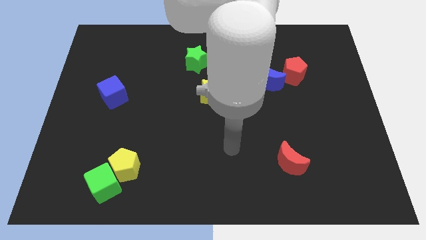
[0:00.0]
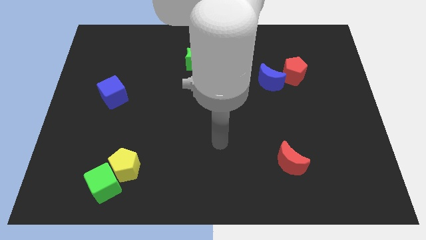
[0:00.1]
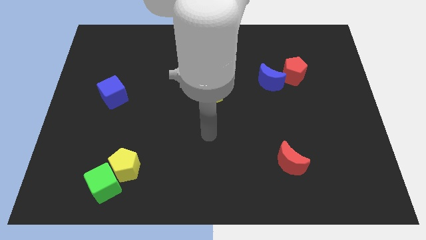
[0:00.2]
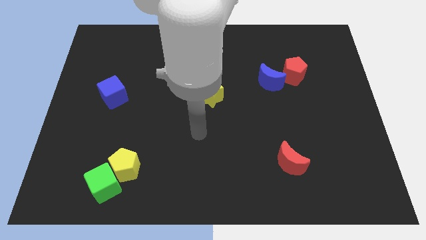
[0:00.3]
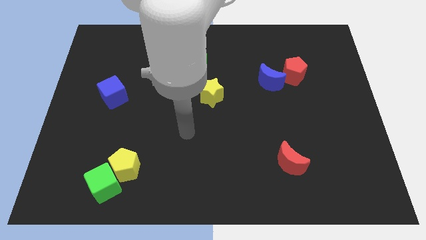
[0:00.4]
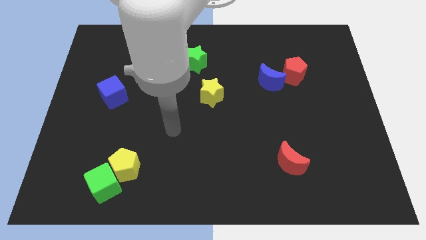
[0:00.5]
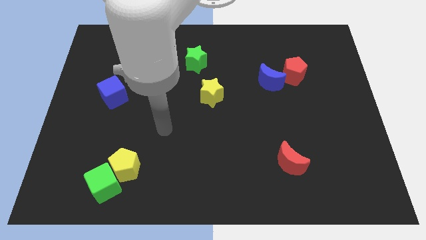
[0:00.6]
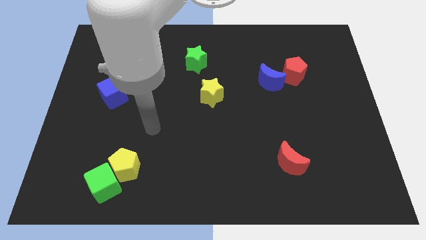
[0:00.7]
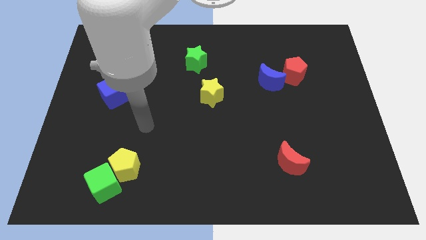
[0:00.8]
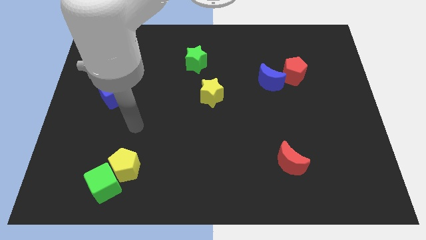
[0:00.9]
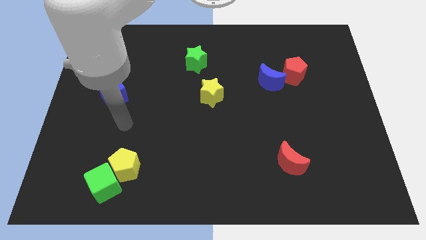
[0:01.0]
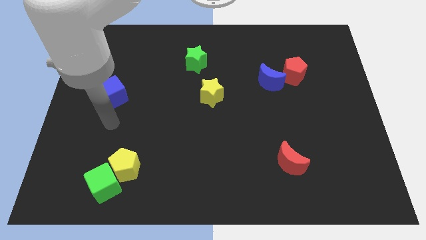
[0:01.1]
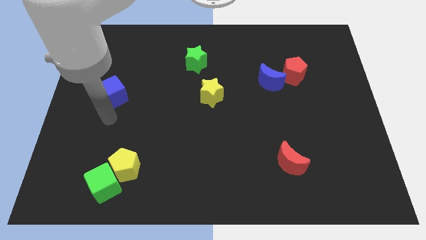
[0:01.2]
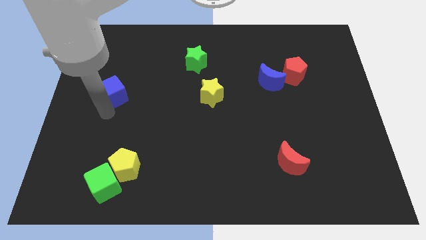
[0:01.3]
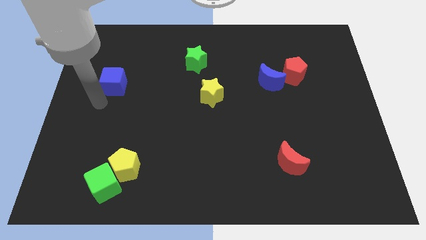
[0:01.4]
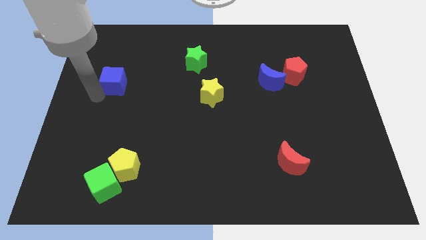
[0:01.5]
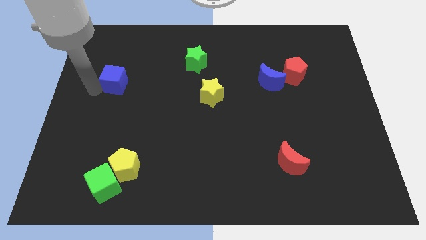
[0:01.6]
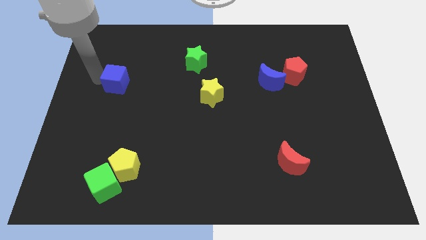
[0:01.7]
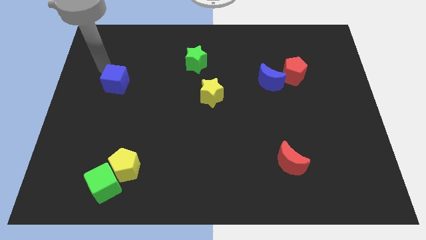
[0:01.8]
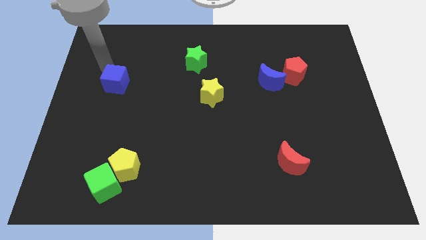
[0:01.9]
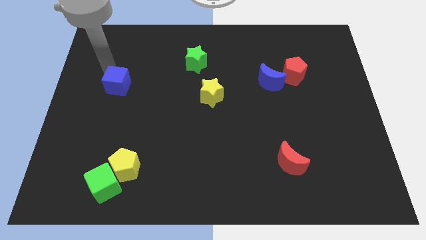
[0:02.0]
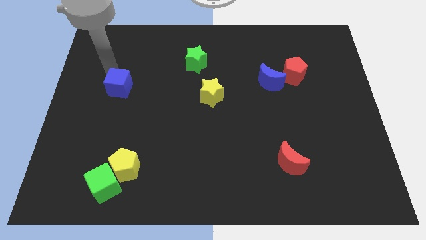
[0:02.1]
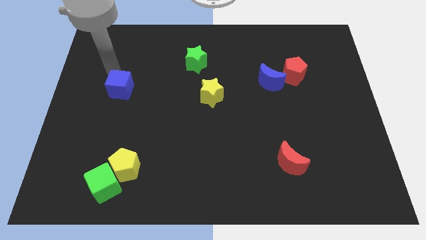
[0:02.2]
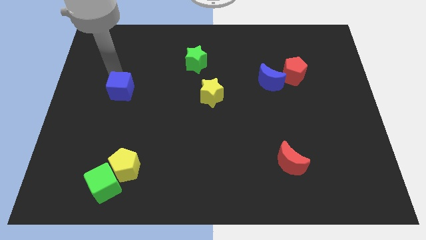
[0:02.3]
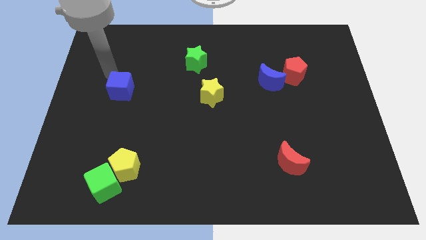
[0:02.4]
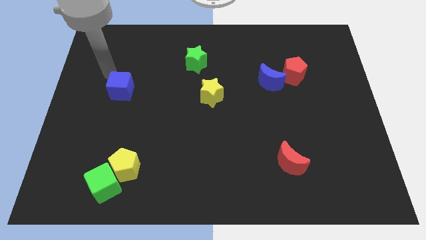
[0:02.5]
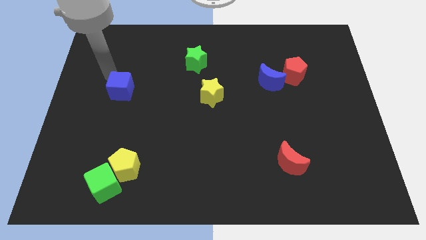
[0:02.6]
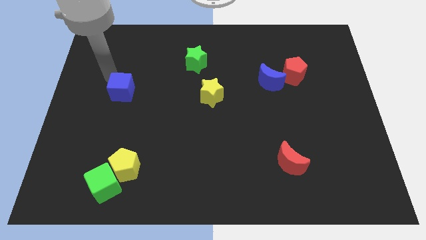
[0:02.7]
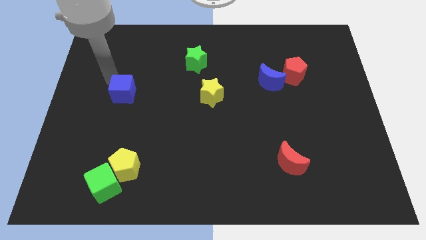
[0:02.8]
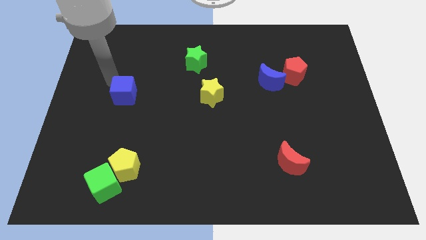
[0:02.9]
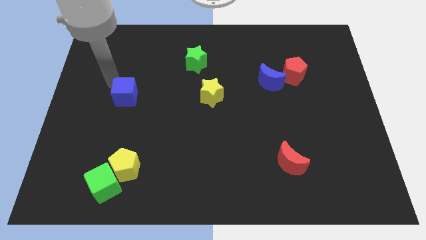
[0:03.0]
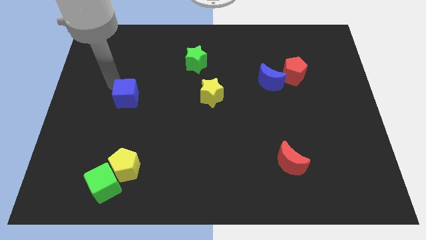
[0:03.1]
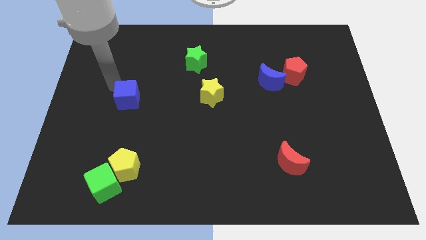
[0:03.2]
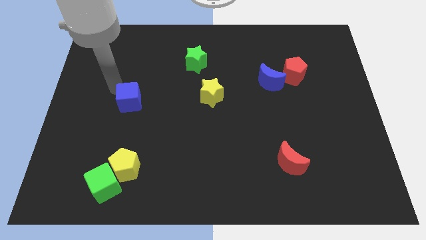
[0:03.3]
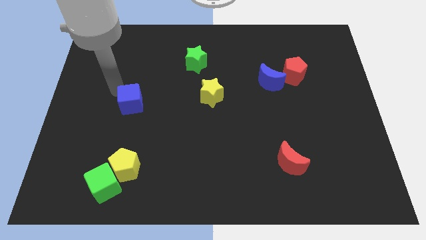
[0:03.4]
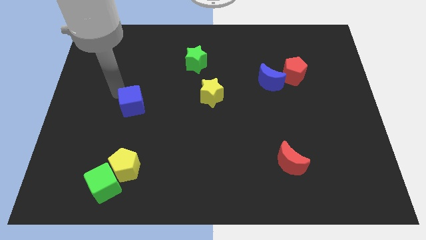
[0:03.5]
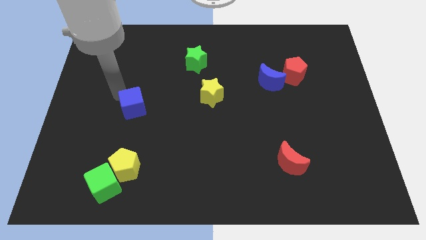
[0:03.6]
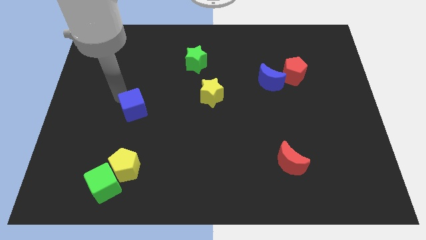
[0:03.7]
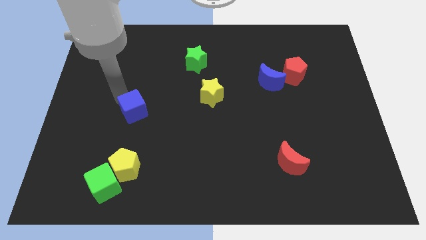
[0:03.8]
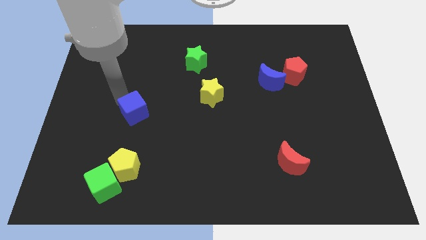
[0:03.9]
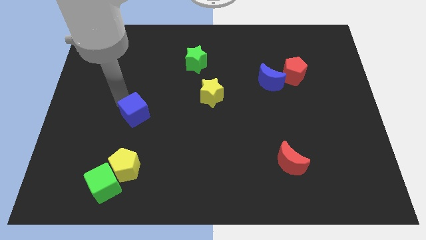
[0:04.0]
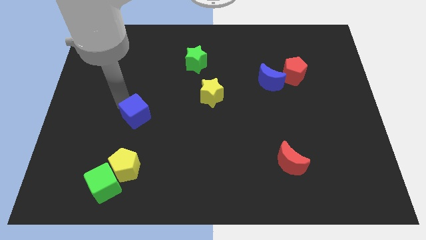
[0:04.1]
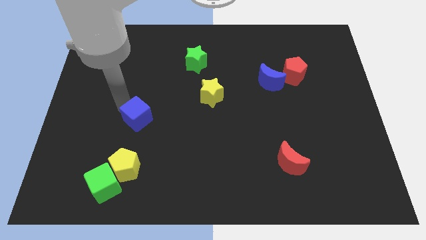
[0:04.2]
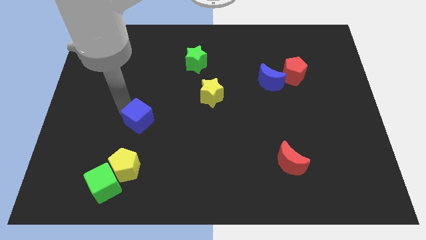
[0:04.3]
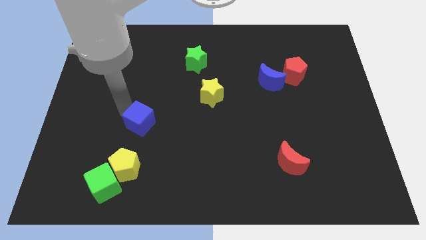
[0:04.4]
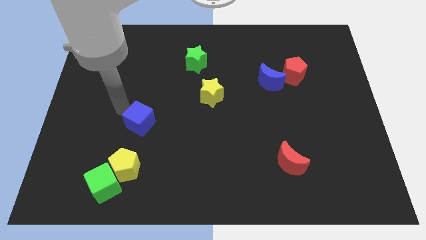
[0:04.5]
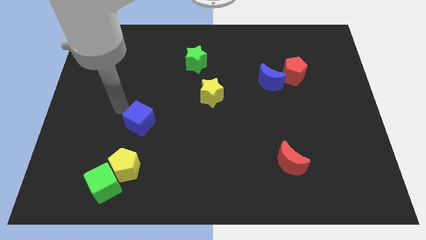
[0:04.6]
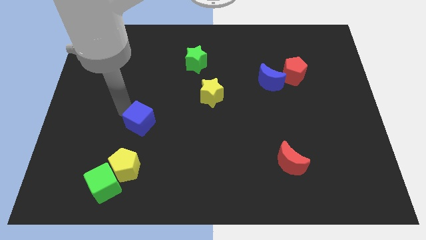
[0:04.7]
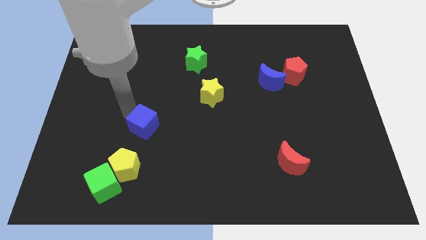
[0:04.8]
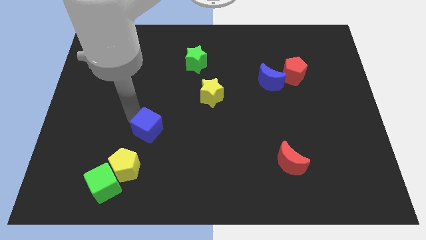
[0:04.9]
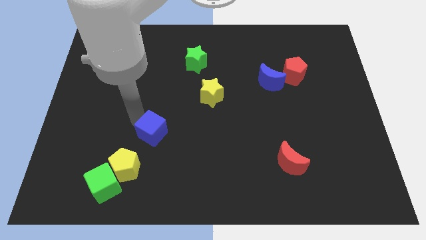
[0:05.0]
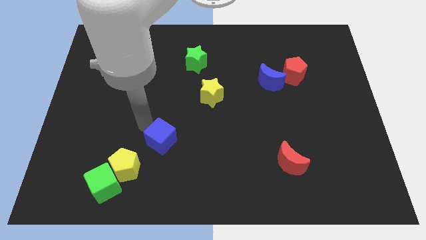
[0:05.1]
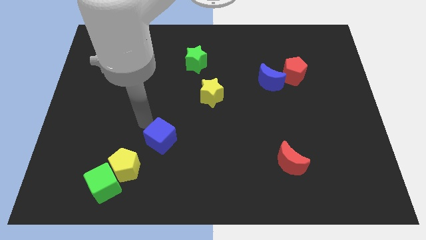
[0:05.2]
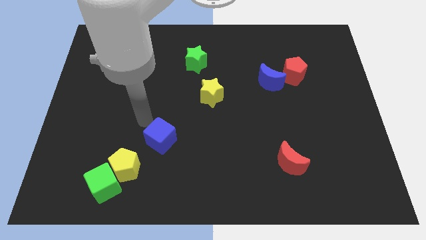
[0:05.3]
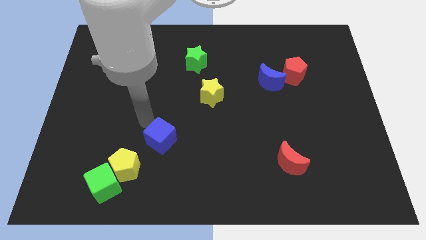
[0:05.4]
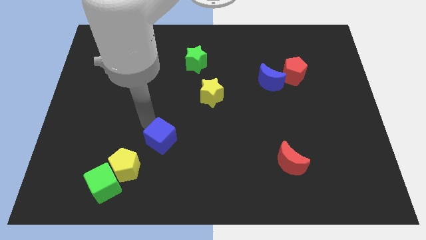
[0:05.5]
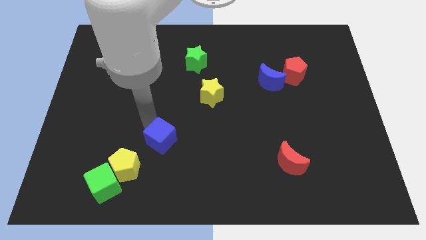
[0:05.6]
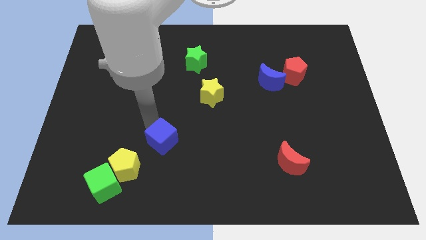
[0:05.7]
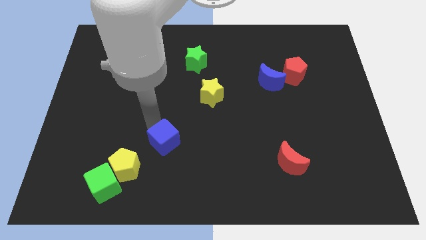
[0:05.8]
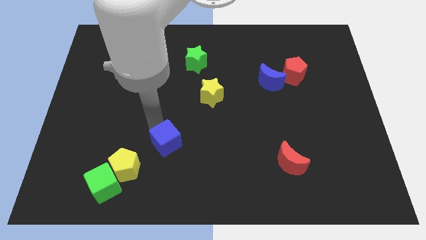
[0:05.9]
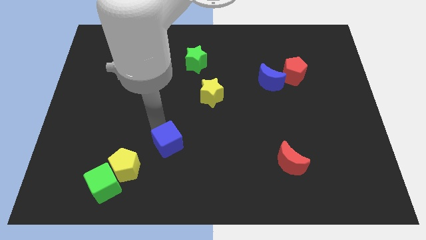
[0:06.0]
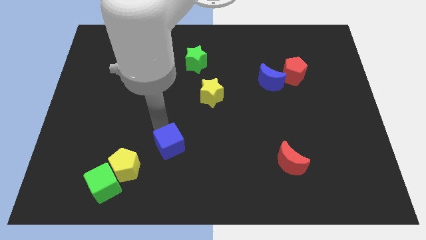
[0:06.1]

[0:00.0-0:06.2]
push the blue cube diagonally downwards and right

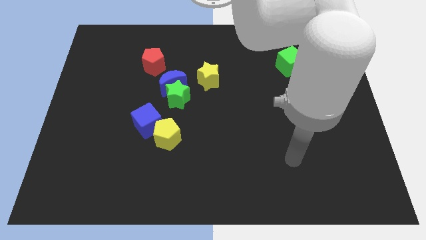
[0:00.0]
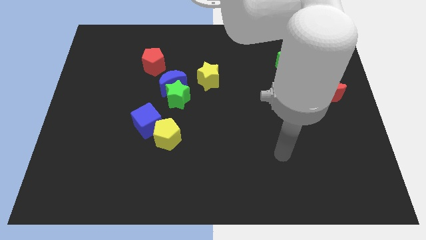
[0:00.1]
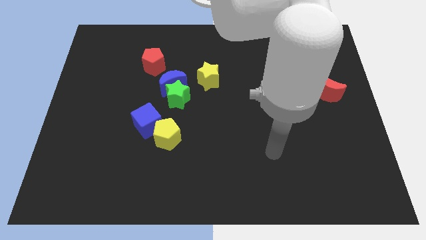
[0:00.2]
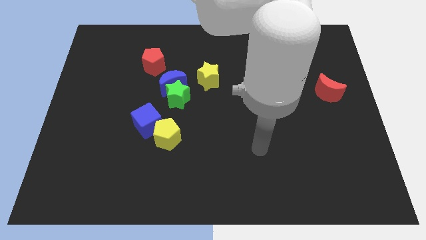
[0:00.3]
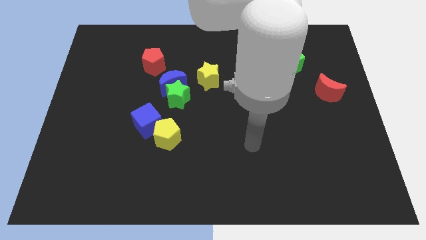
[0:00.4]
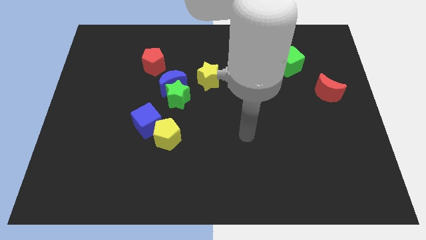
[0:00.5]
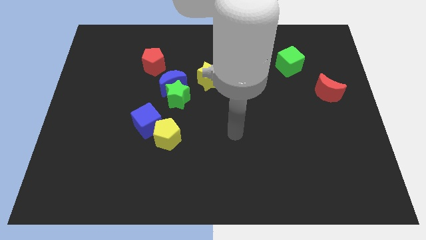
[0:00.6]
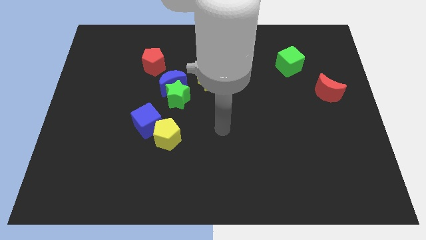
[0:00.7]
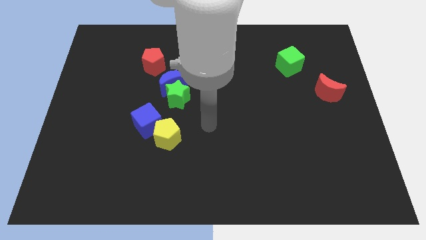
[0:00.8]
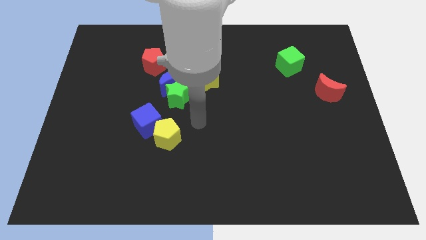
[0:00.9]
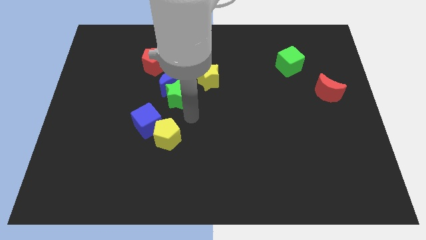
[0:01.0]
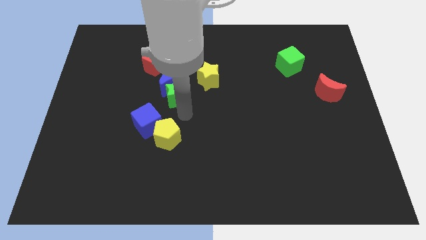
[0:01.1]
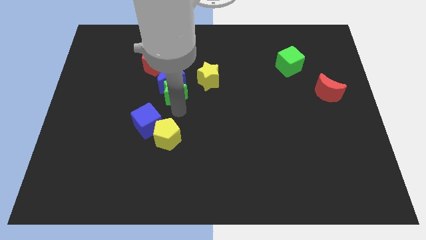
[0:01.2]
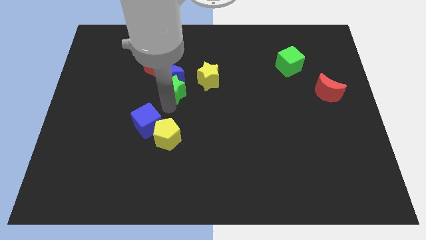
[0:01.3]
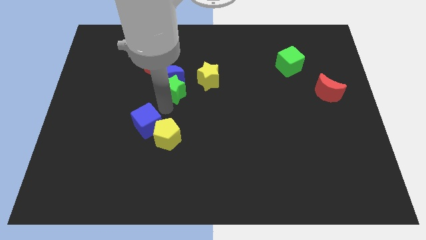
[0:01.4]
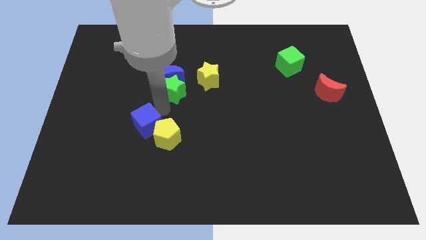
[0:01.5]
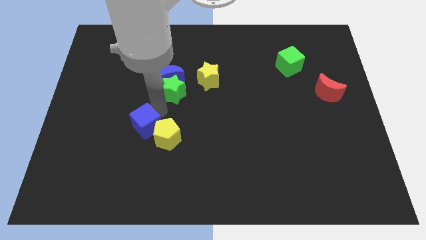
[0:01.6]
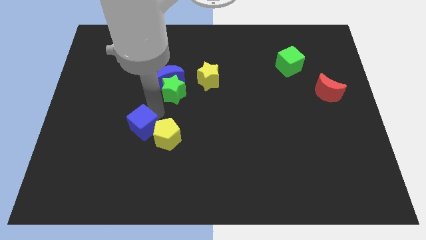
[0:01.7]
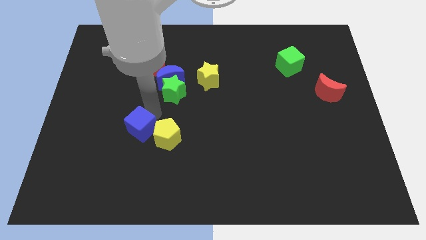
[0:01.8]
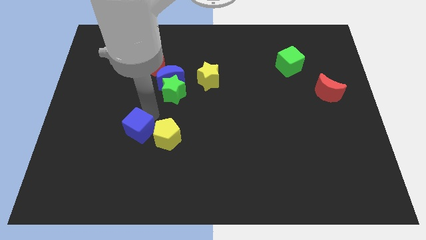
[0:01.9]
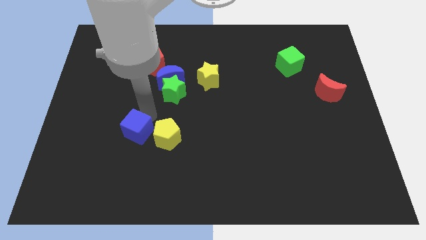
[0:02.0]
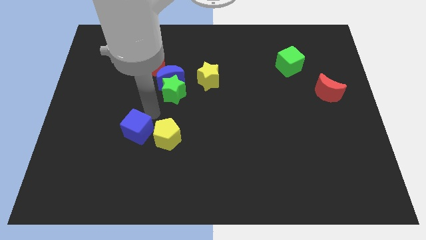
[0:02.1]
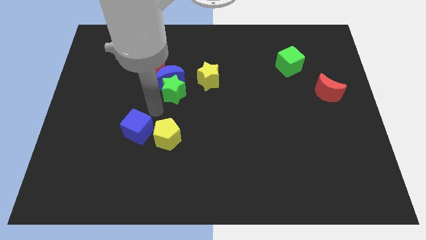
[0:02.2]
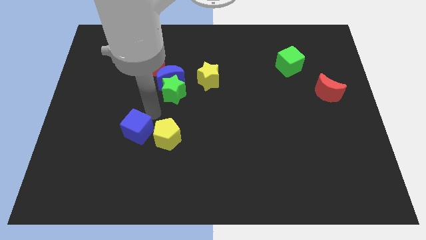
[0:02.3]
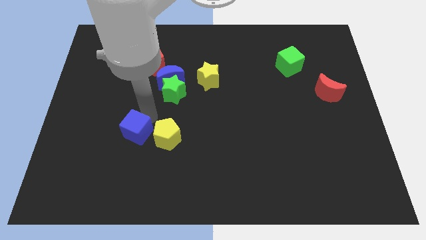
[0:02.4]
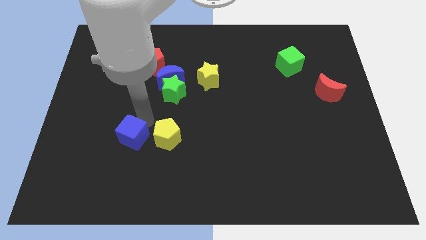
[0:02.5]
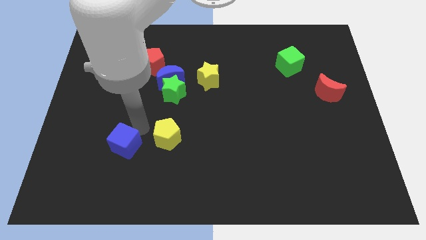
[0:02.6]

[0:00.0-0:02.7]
slightly push the blue cube diagonally down and left
